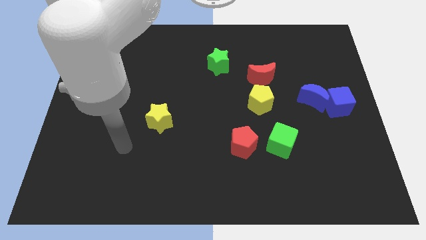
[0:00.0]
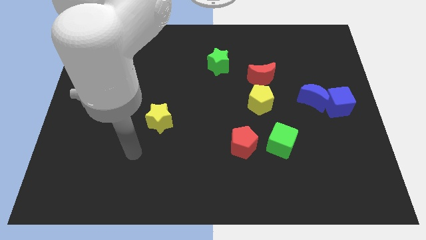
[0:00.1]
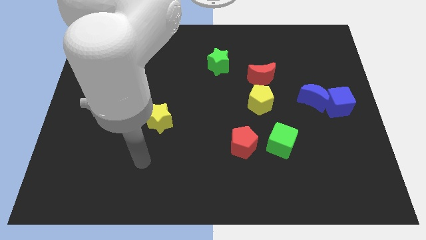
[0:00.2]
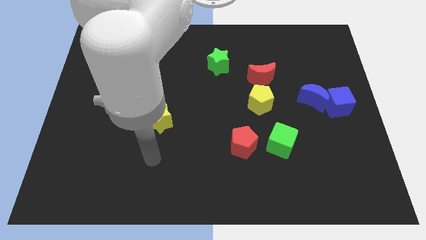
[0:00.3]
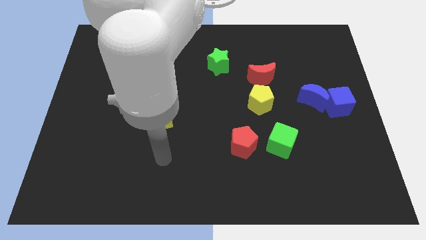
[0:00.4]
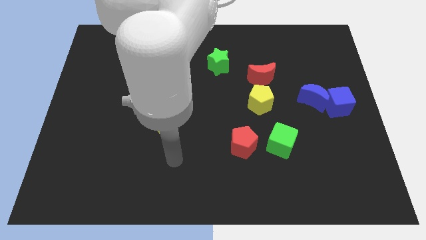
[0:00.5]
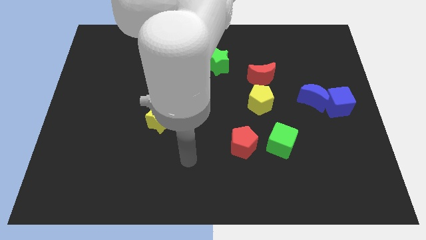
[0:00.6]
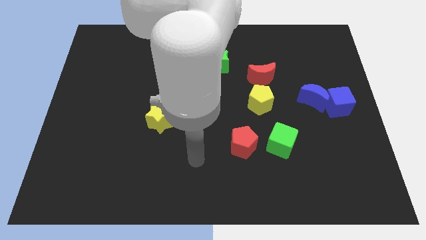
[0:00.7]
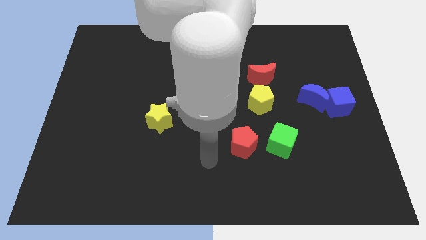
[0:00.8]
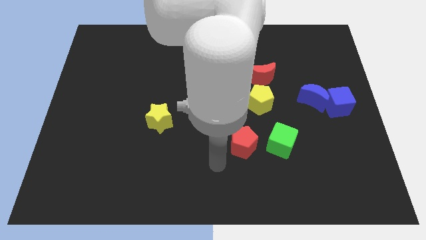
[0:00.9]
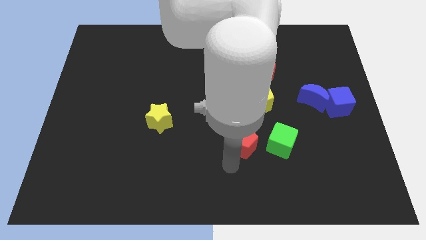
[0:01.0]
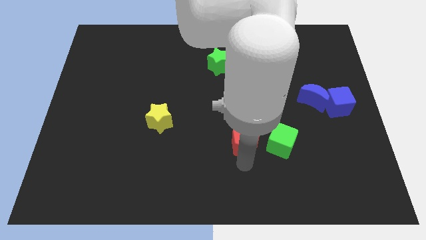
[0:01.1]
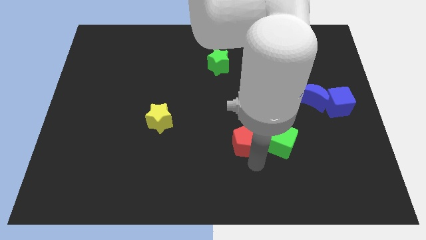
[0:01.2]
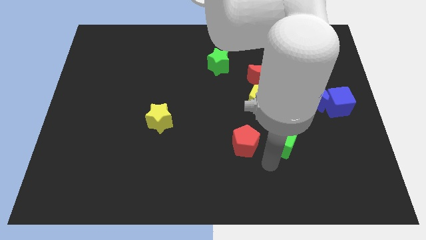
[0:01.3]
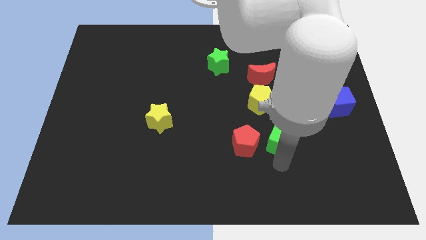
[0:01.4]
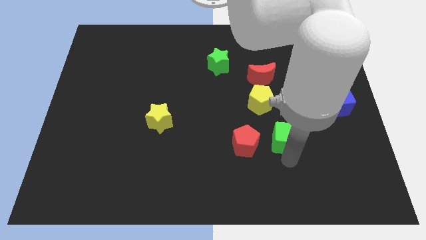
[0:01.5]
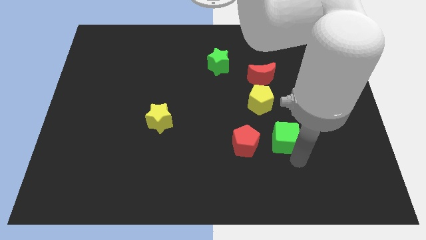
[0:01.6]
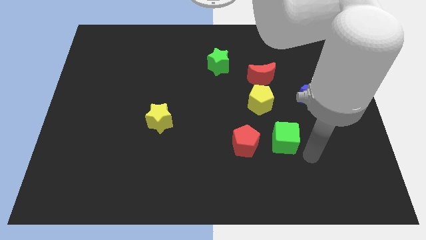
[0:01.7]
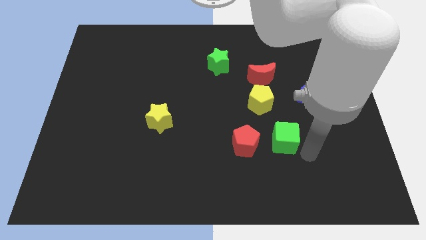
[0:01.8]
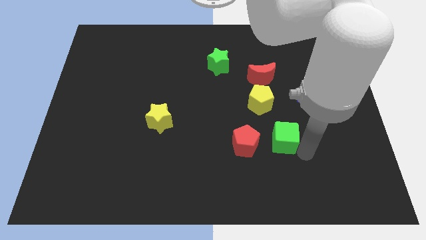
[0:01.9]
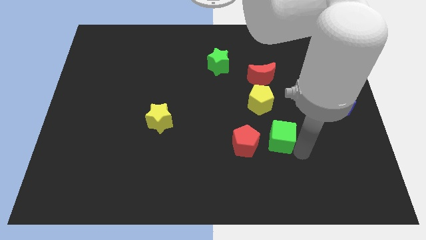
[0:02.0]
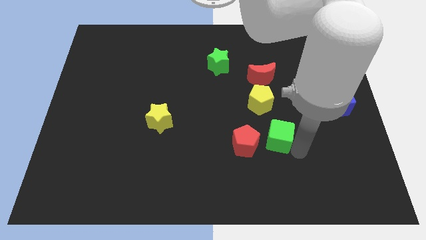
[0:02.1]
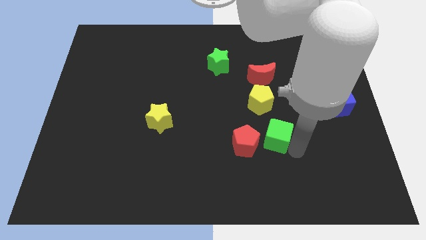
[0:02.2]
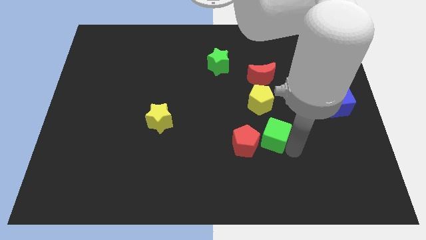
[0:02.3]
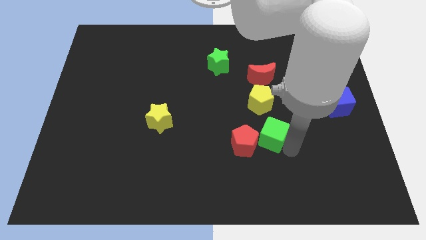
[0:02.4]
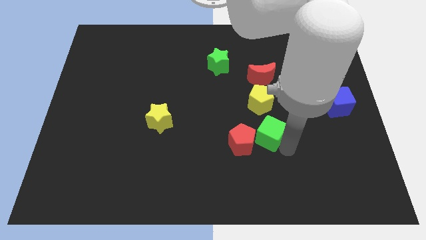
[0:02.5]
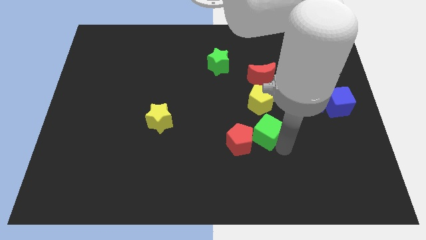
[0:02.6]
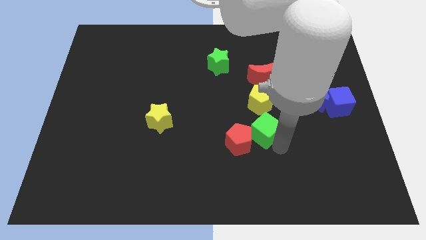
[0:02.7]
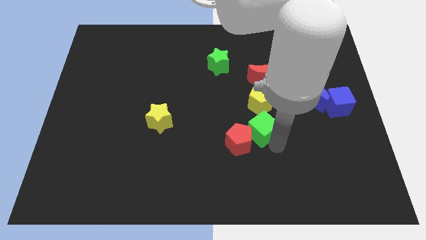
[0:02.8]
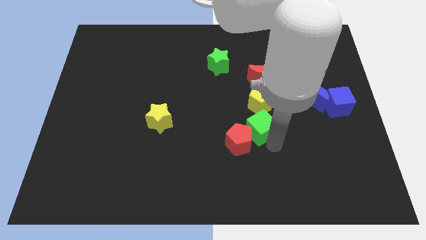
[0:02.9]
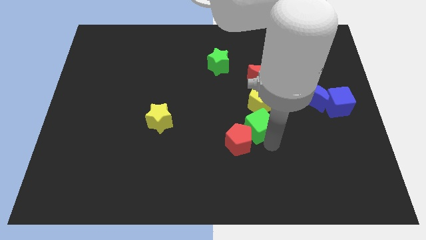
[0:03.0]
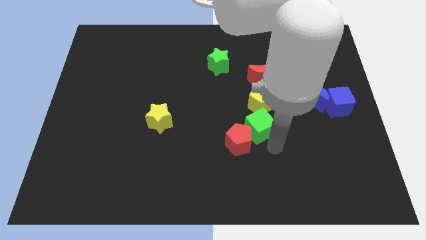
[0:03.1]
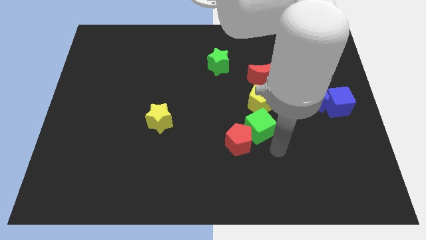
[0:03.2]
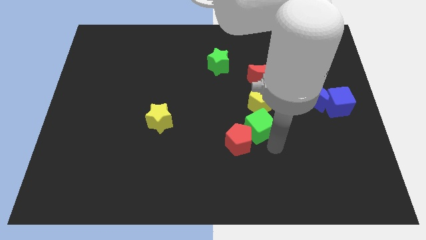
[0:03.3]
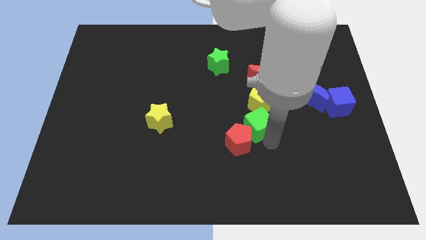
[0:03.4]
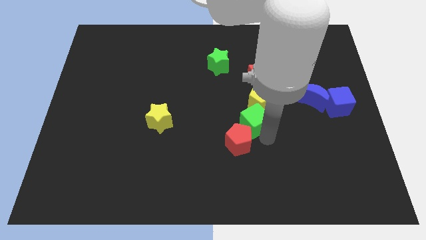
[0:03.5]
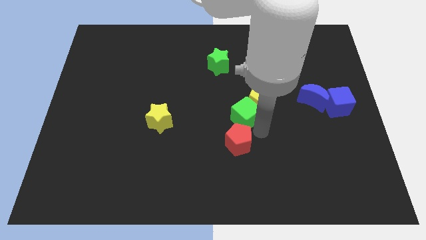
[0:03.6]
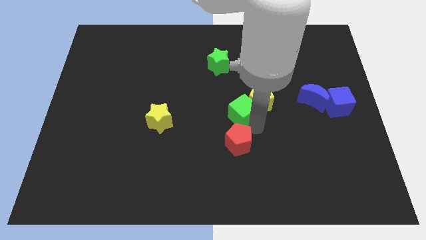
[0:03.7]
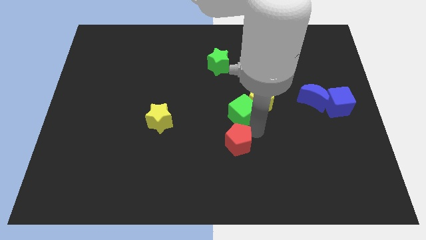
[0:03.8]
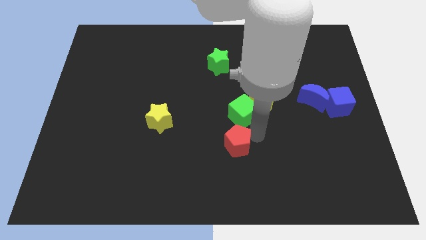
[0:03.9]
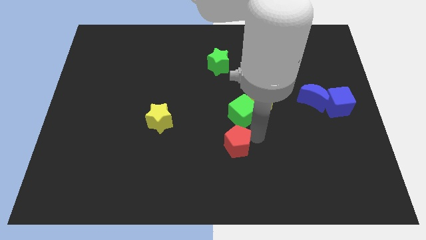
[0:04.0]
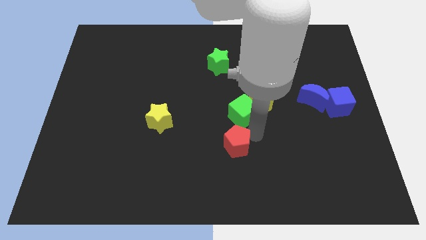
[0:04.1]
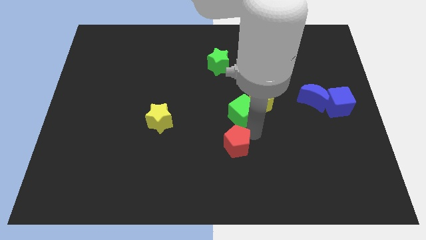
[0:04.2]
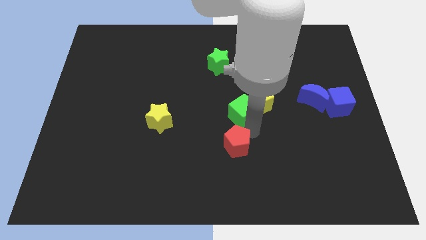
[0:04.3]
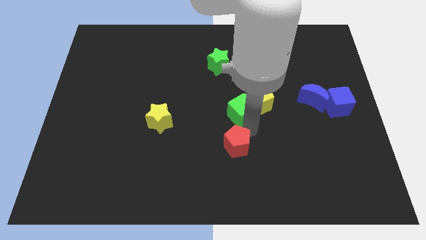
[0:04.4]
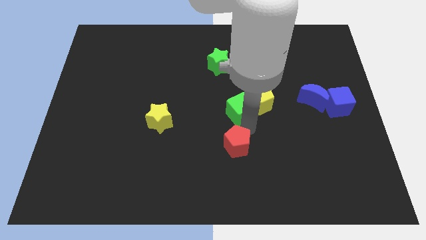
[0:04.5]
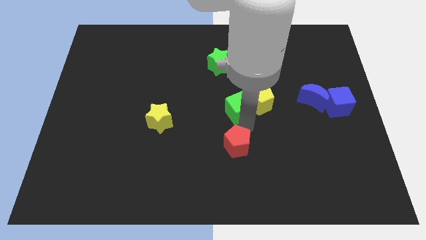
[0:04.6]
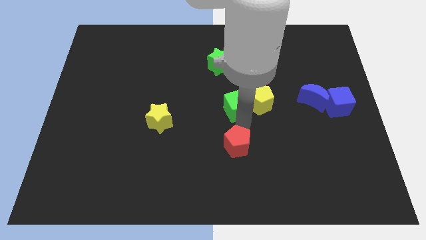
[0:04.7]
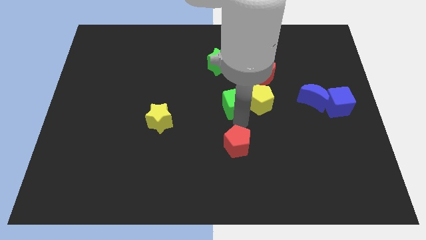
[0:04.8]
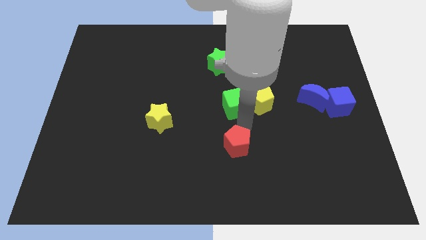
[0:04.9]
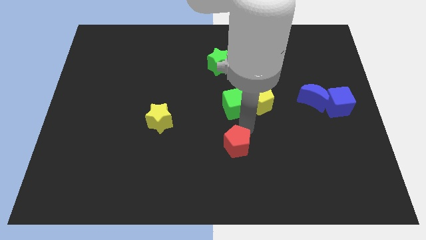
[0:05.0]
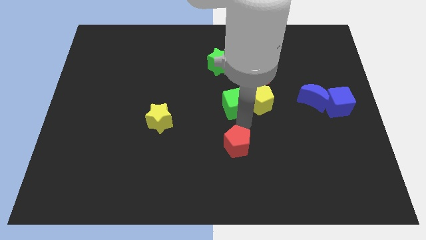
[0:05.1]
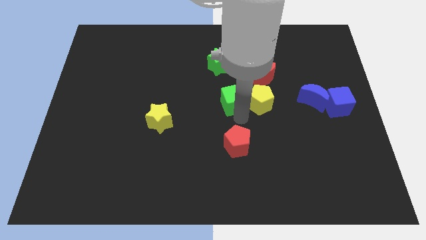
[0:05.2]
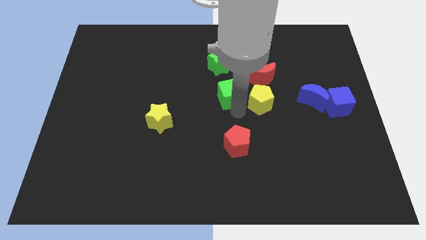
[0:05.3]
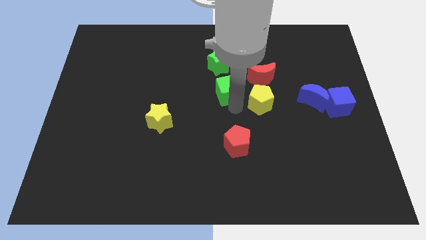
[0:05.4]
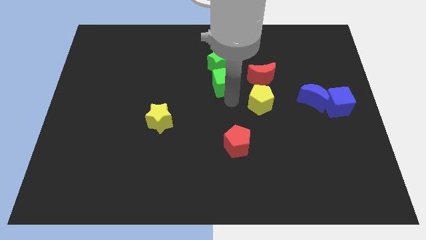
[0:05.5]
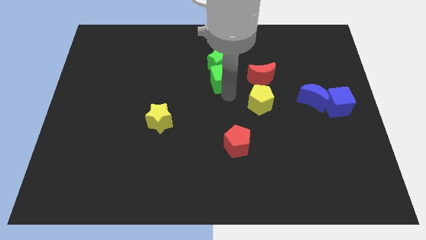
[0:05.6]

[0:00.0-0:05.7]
move the green cube close to the green star

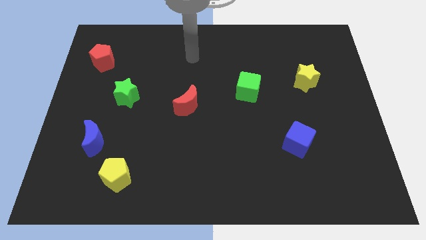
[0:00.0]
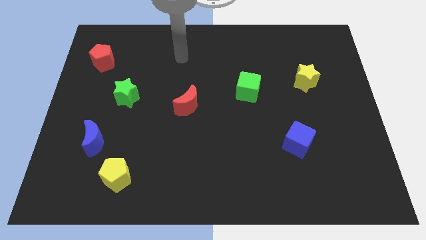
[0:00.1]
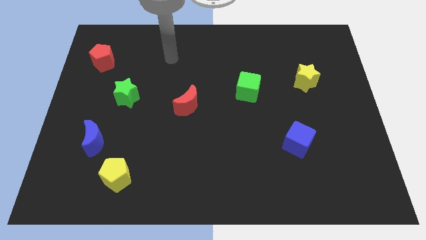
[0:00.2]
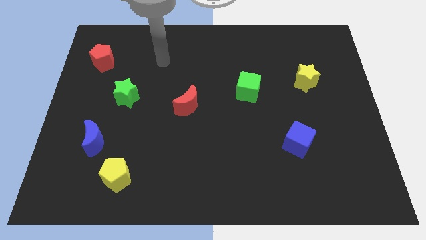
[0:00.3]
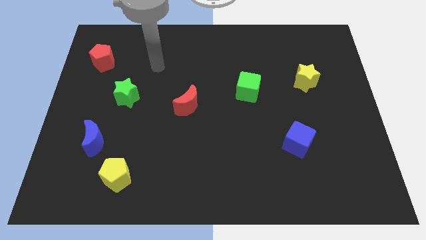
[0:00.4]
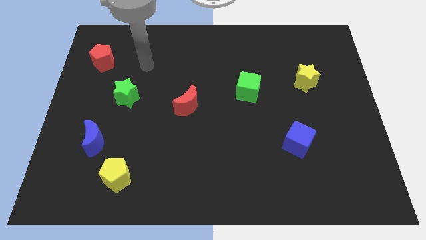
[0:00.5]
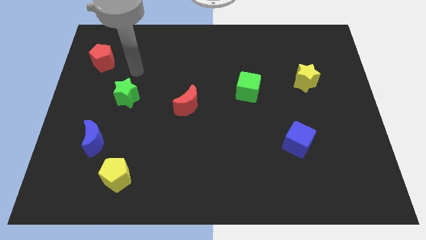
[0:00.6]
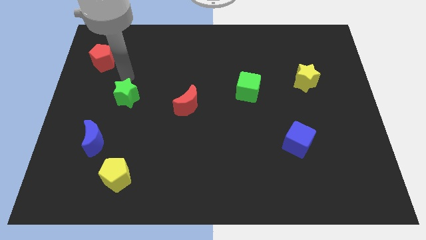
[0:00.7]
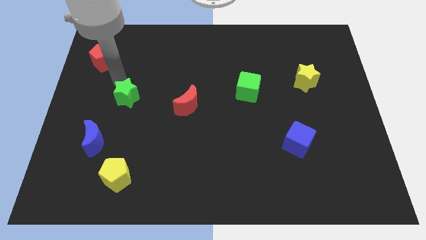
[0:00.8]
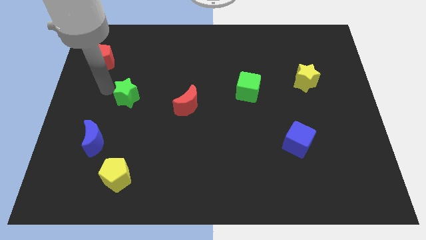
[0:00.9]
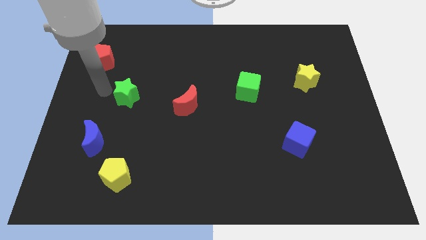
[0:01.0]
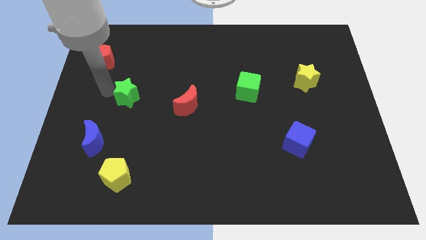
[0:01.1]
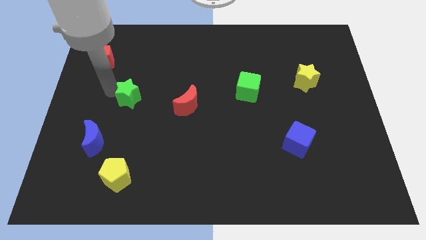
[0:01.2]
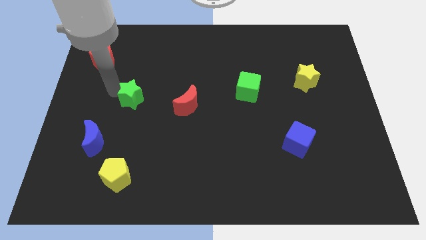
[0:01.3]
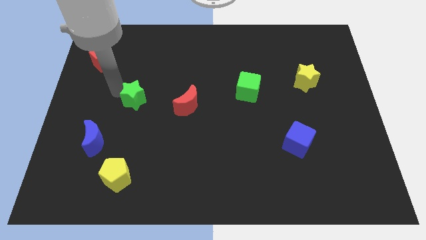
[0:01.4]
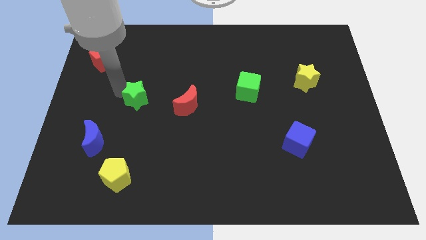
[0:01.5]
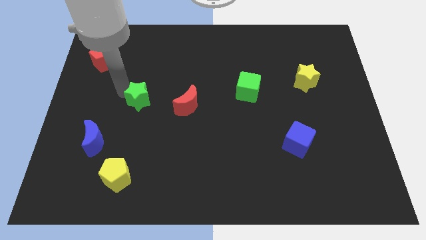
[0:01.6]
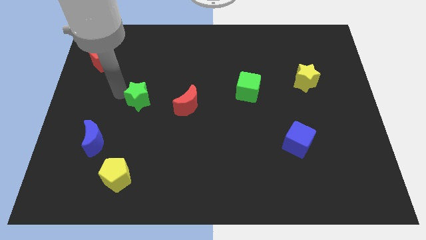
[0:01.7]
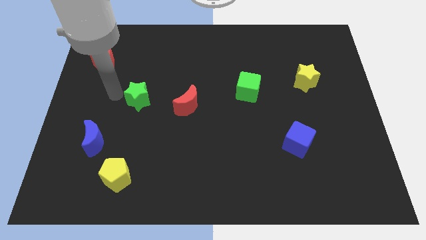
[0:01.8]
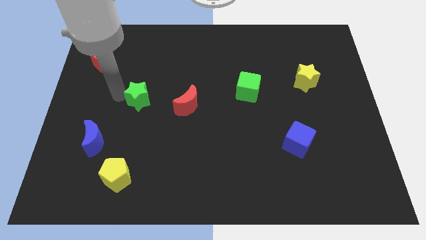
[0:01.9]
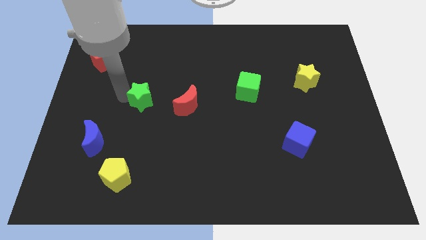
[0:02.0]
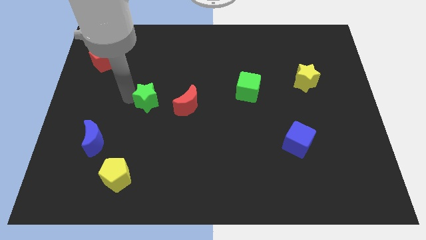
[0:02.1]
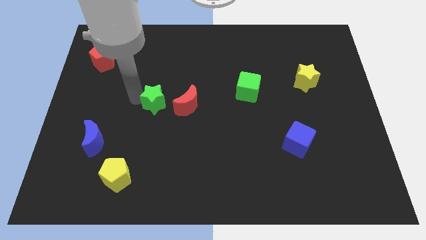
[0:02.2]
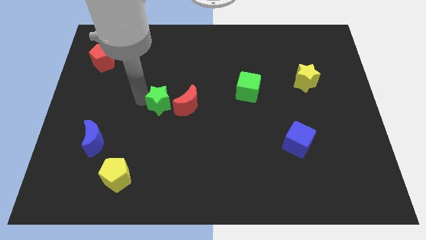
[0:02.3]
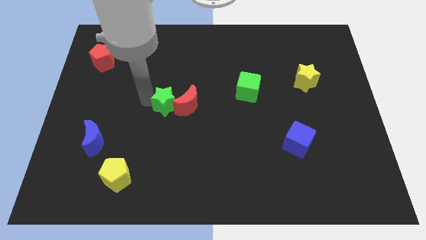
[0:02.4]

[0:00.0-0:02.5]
slide the green star to the red moon
